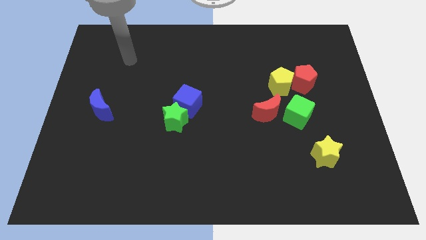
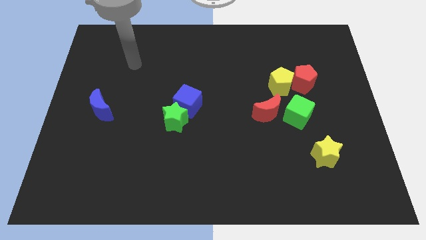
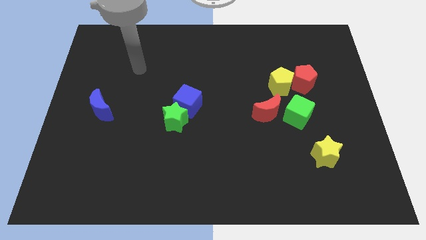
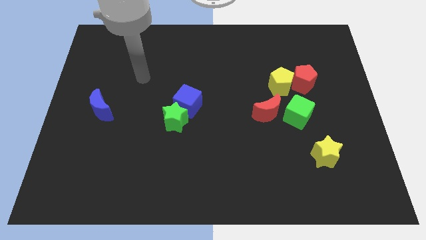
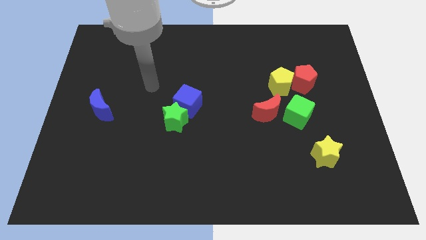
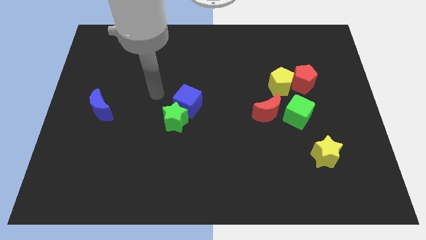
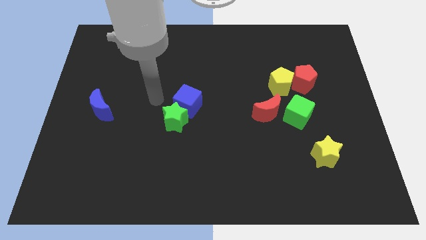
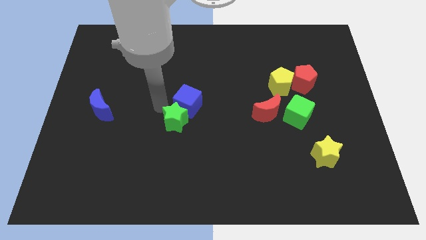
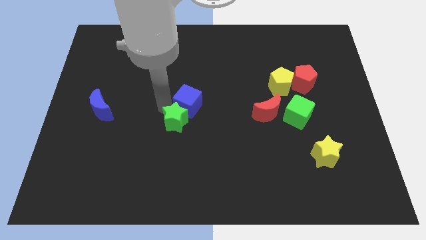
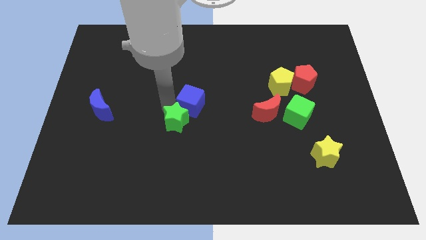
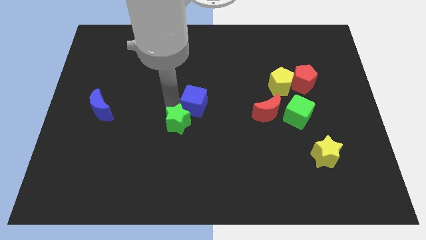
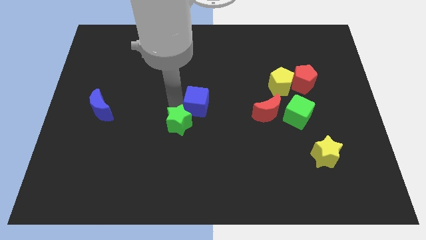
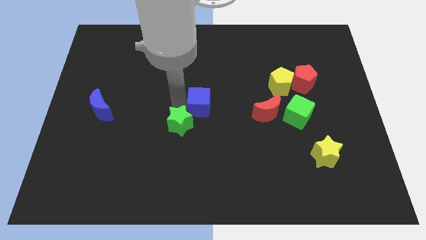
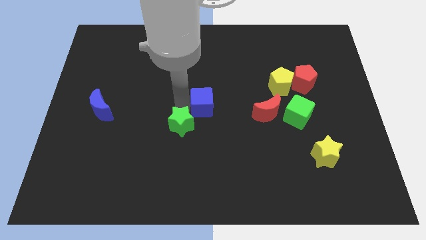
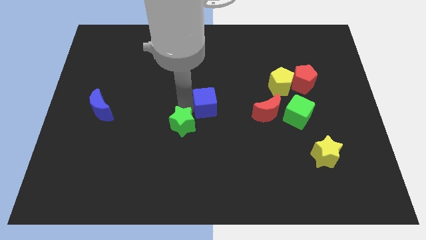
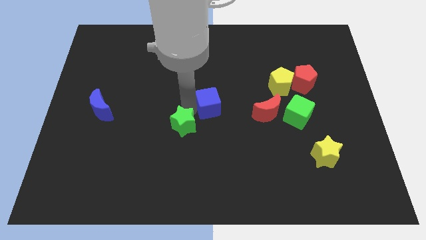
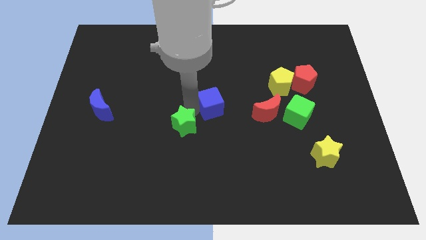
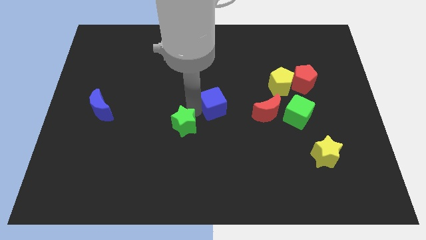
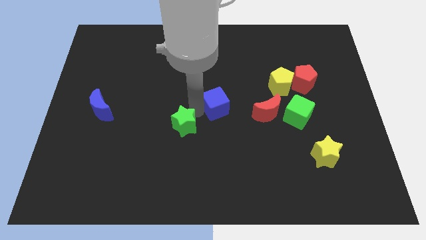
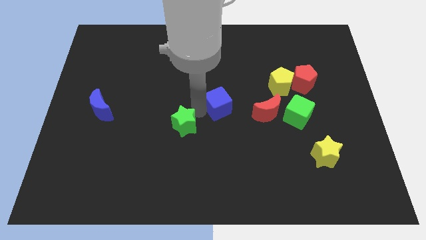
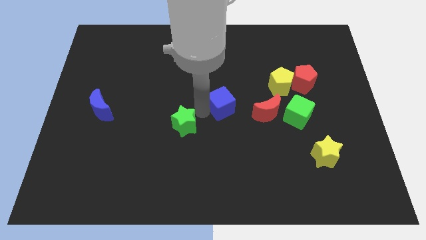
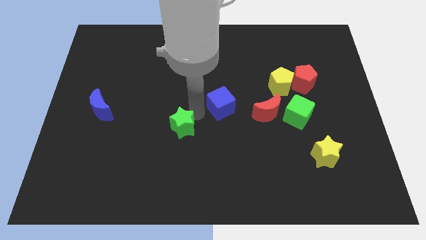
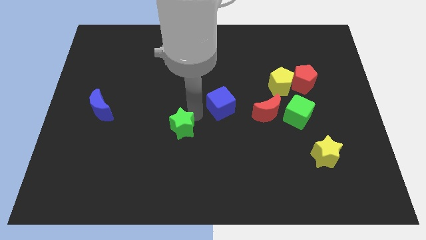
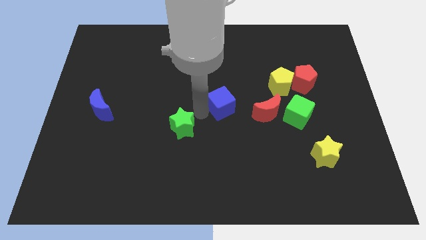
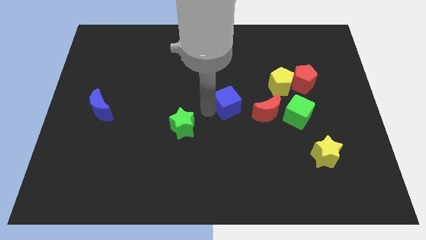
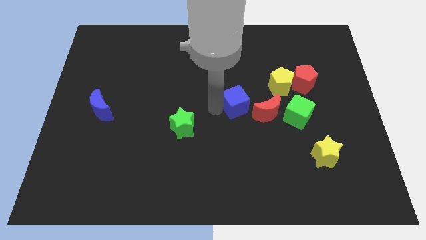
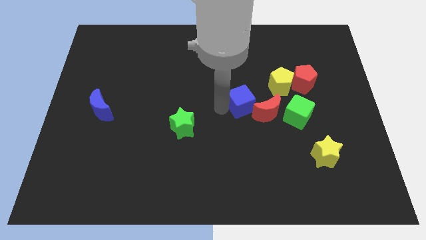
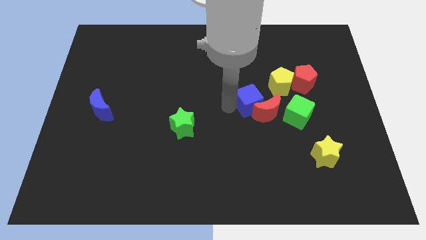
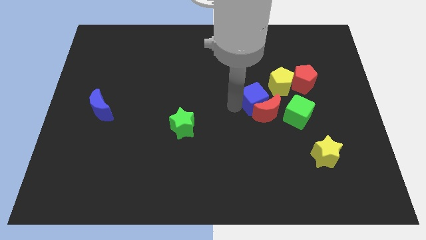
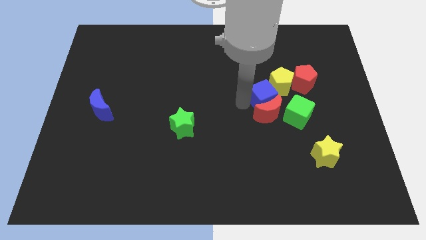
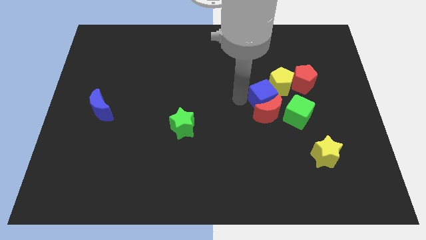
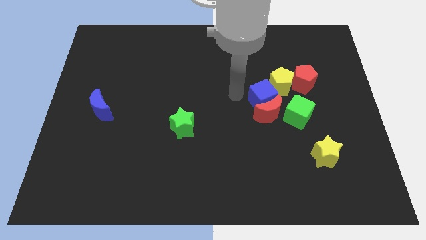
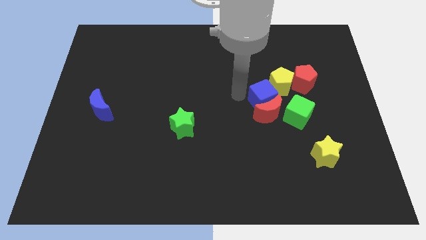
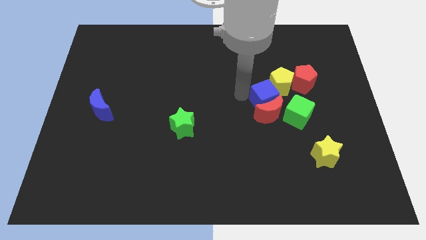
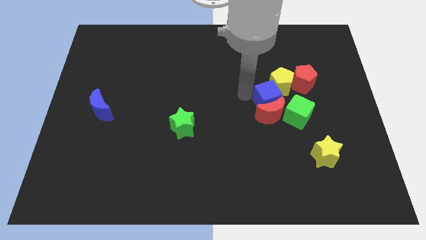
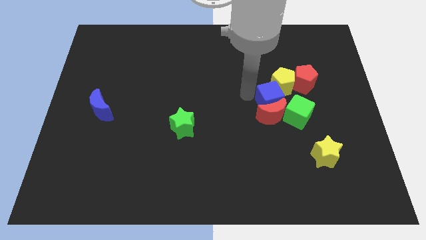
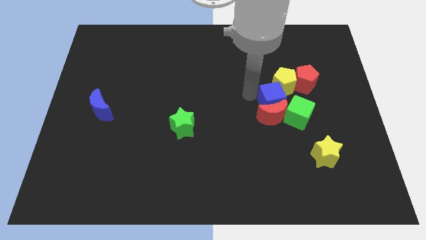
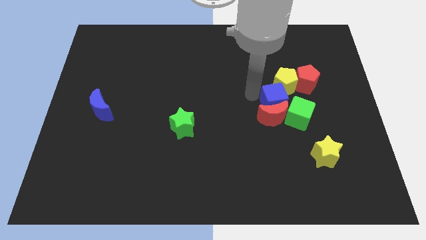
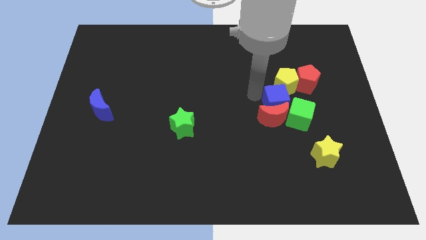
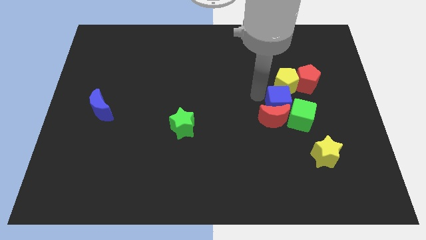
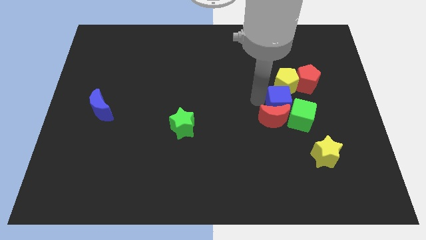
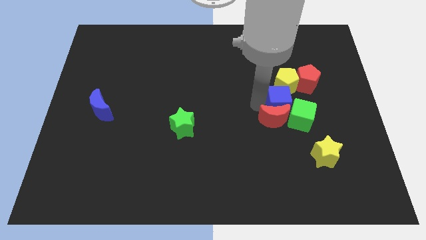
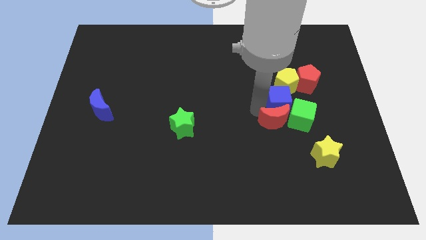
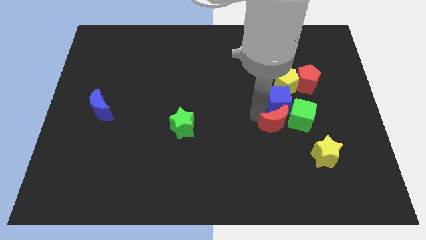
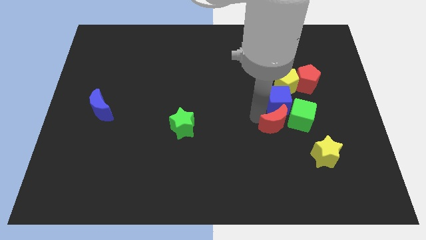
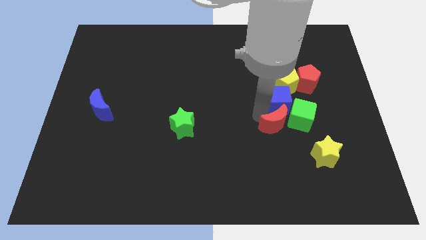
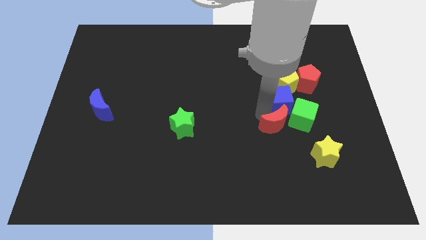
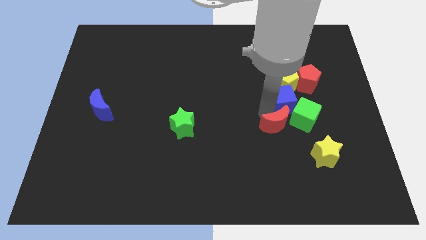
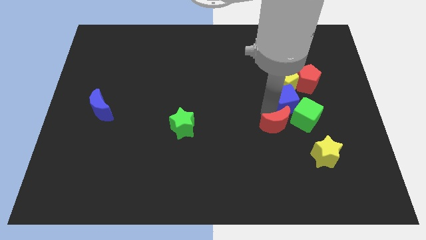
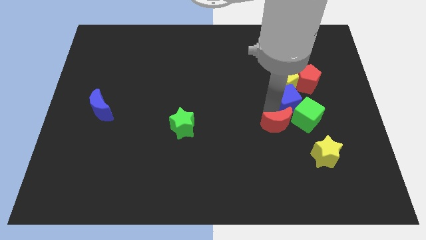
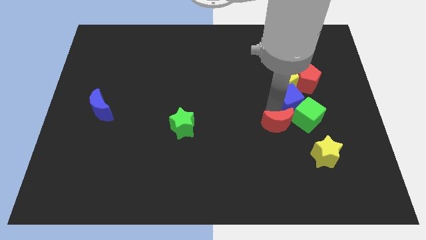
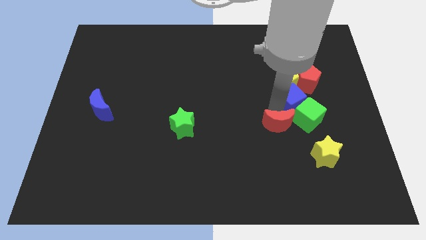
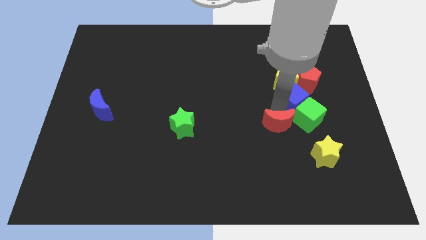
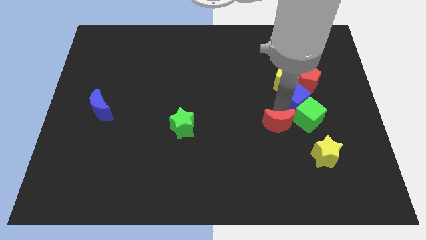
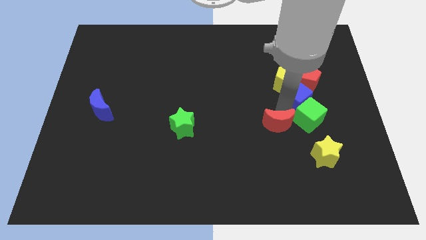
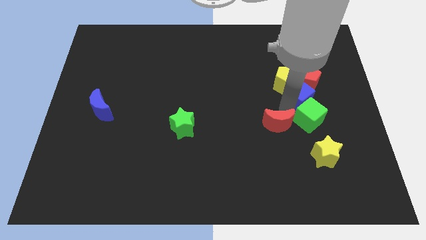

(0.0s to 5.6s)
move the blue cube towards the red pentagon

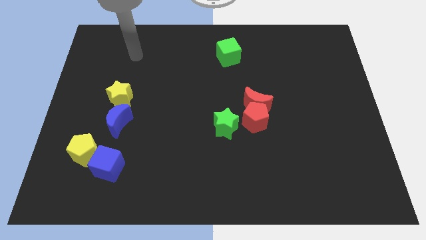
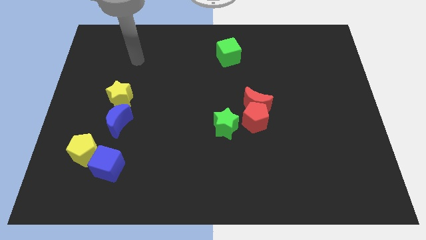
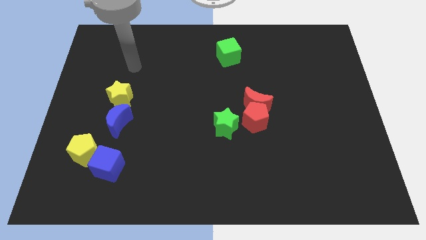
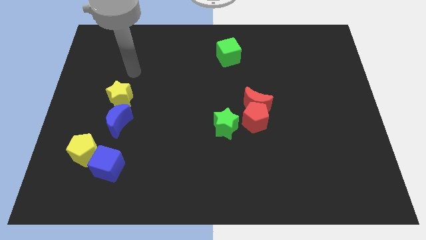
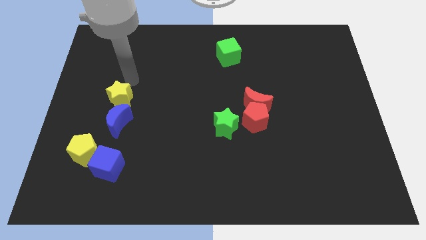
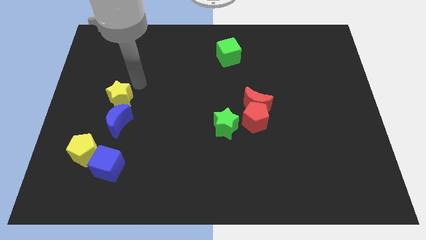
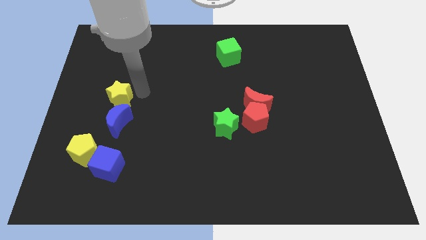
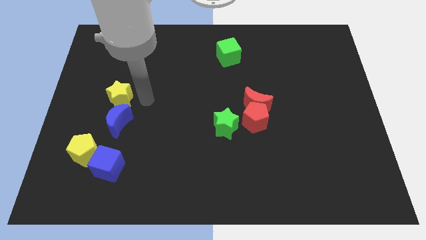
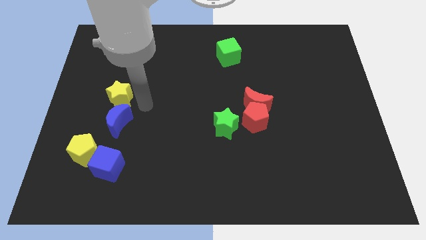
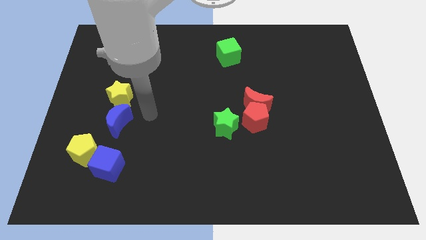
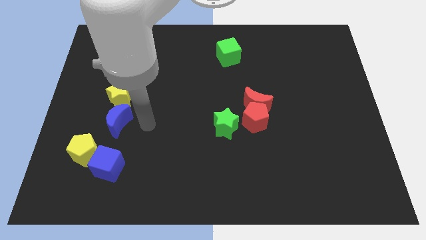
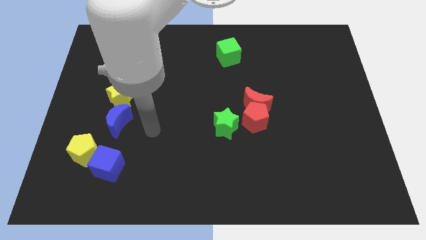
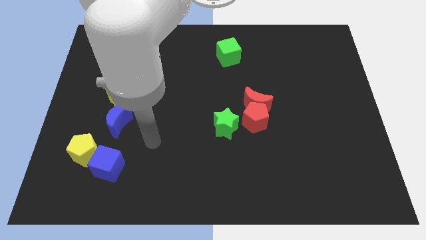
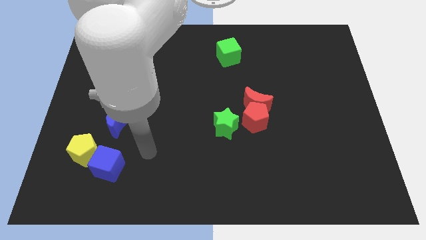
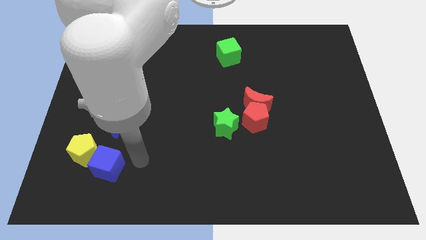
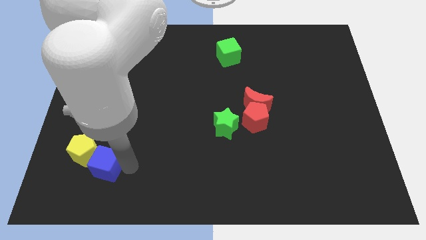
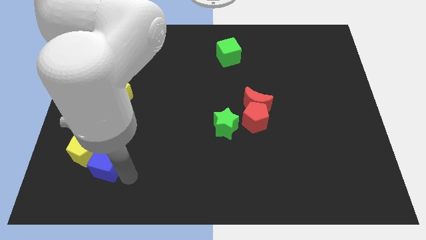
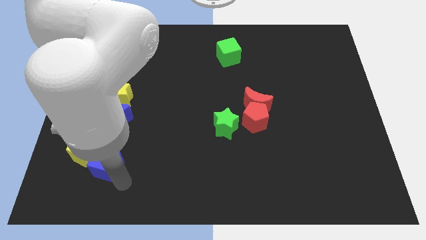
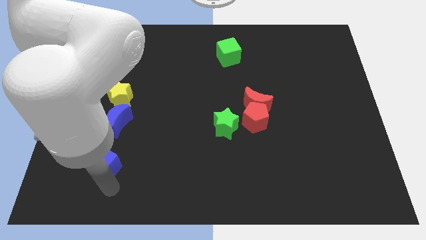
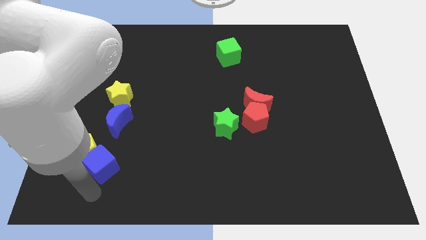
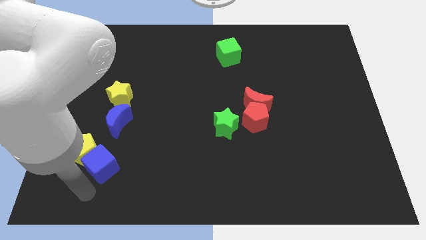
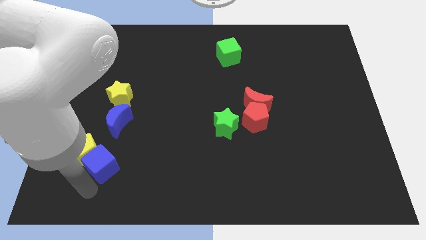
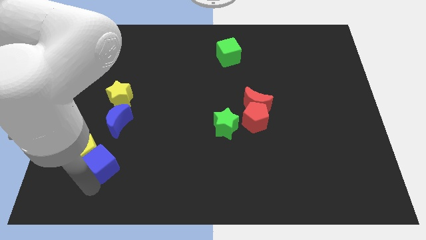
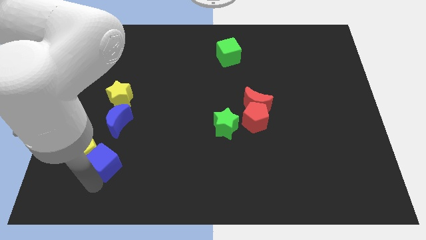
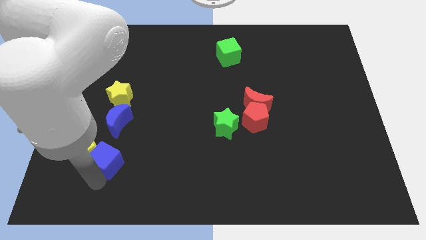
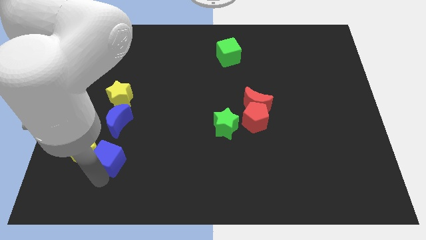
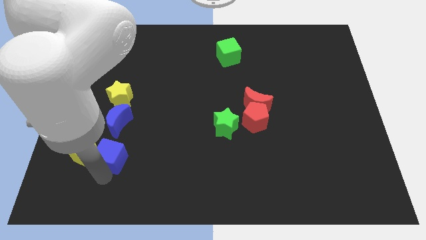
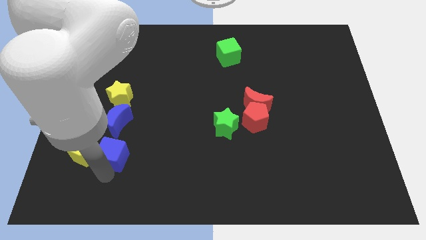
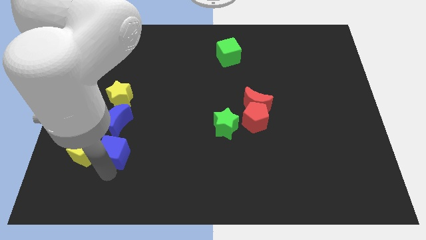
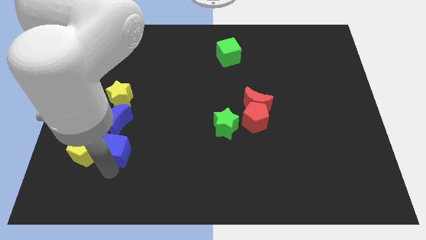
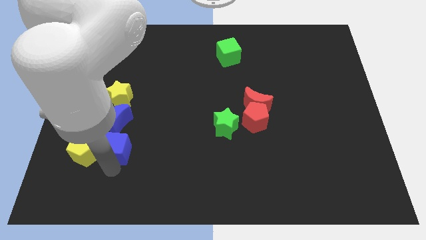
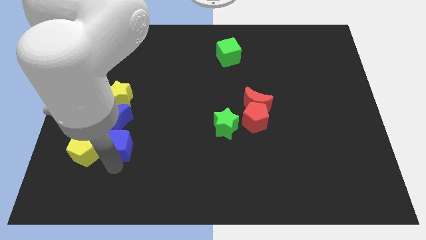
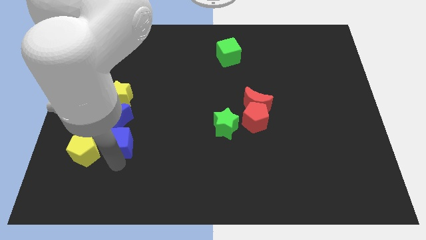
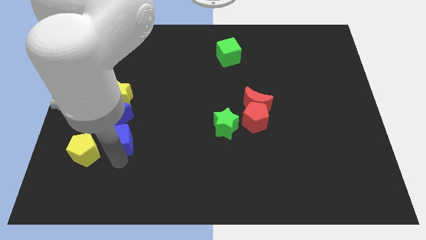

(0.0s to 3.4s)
slide the blue cube next to the blue moon
